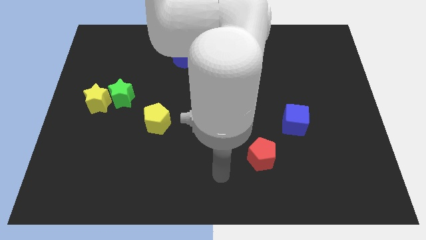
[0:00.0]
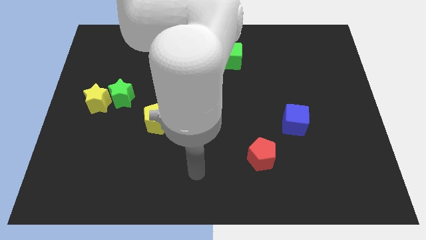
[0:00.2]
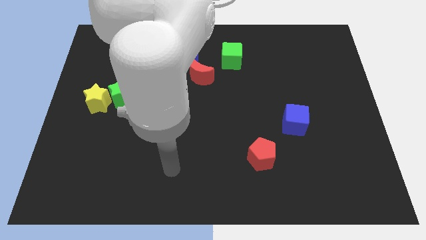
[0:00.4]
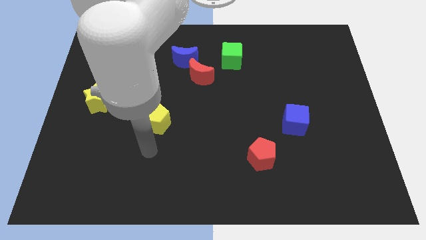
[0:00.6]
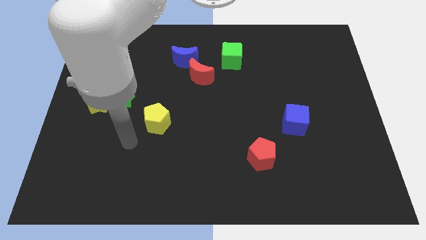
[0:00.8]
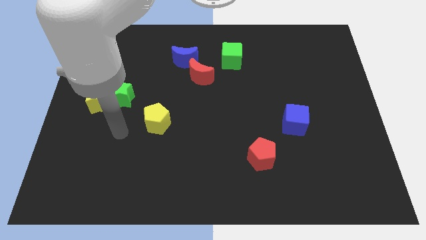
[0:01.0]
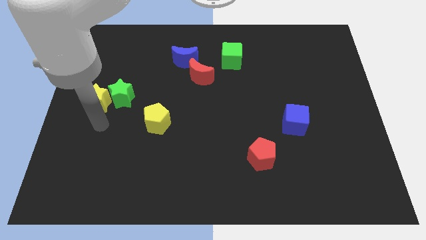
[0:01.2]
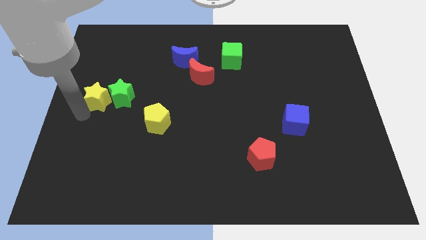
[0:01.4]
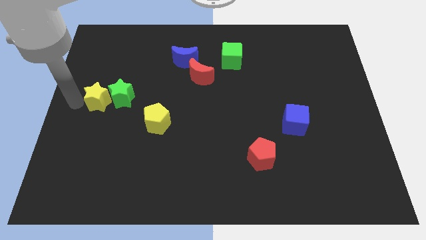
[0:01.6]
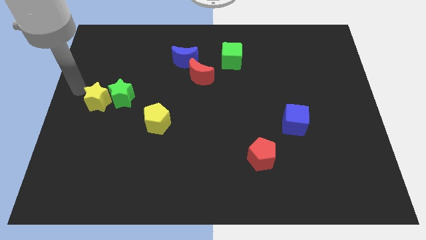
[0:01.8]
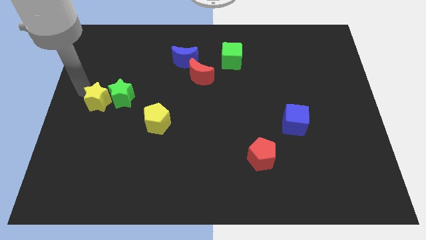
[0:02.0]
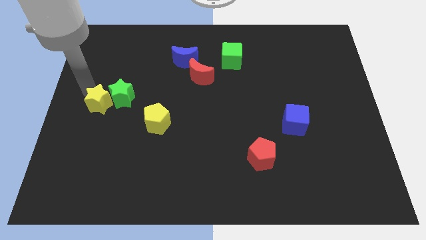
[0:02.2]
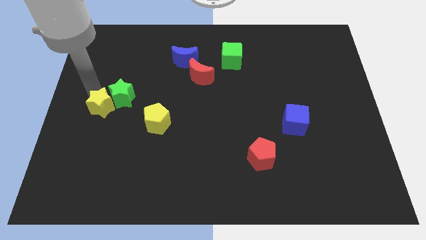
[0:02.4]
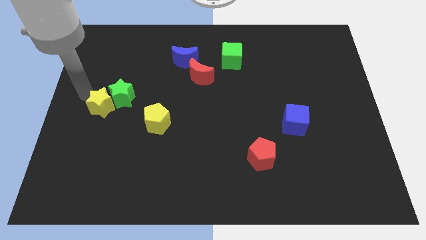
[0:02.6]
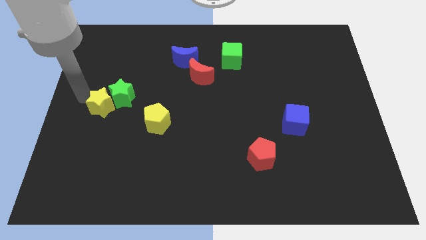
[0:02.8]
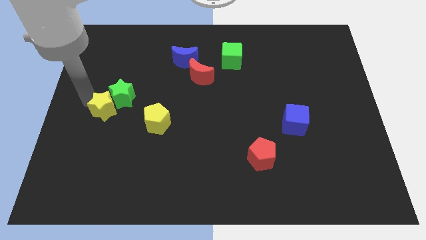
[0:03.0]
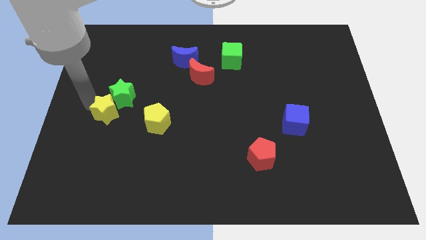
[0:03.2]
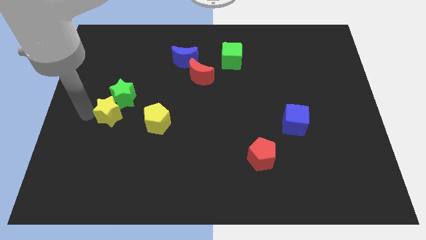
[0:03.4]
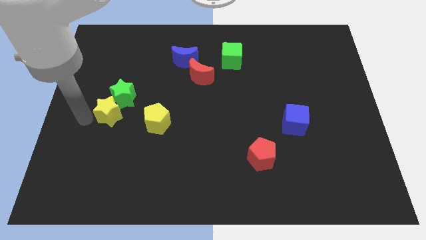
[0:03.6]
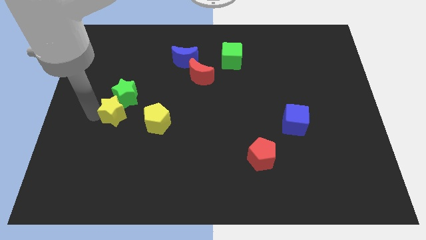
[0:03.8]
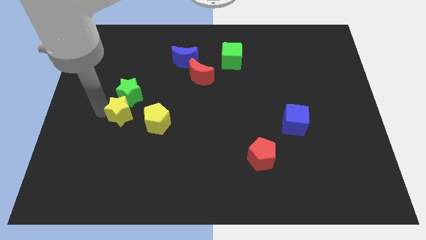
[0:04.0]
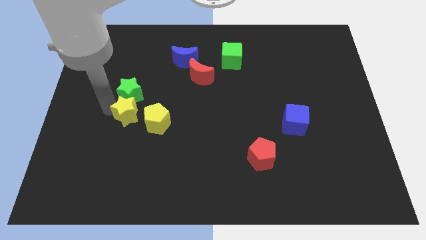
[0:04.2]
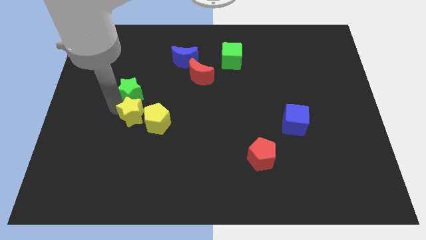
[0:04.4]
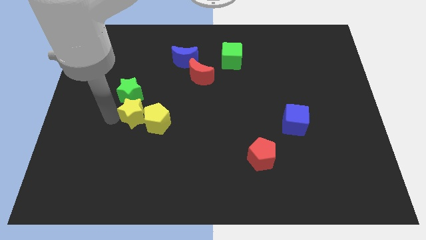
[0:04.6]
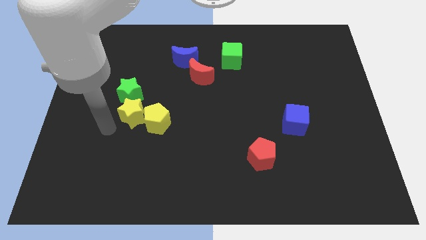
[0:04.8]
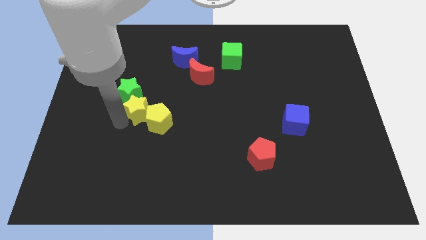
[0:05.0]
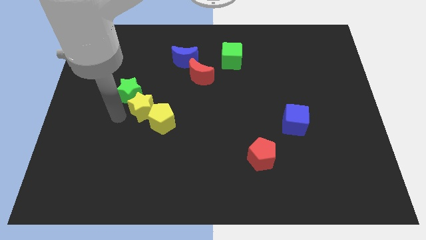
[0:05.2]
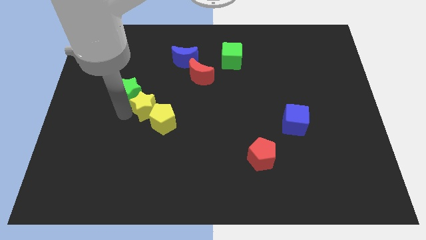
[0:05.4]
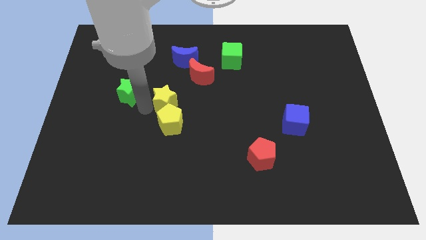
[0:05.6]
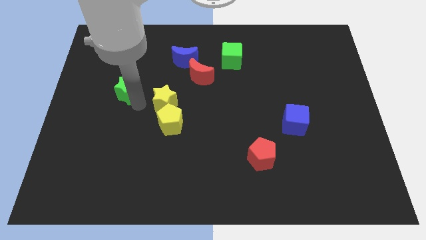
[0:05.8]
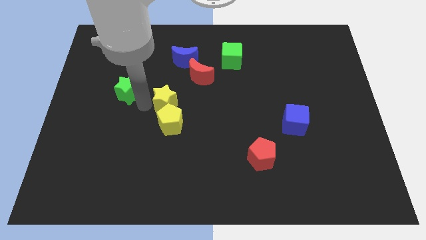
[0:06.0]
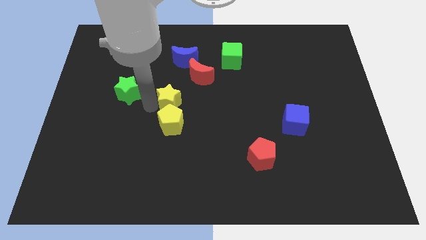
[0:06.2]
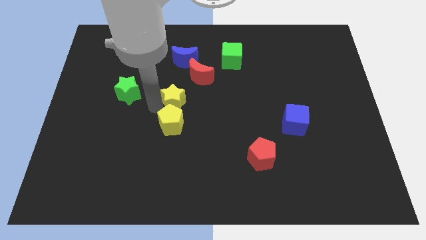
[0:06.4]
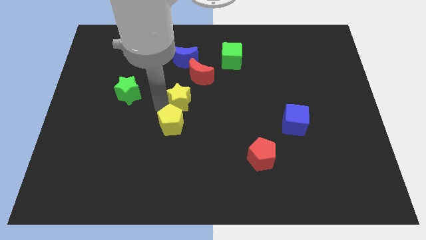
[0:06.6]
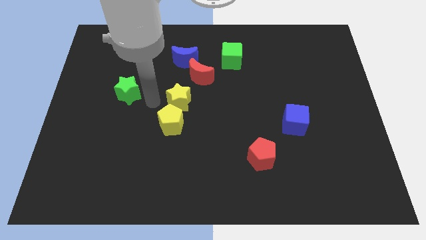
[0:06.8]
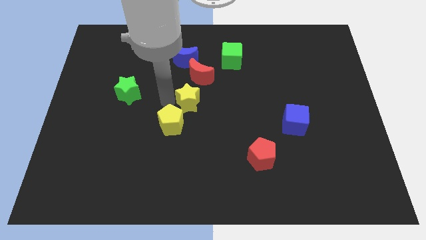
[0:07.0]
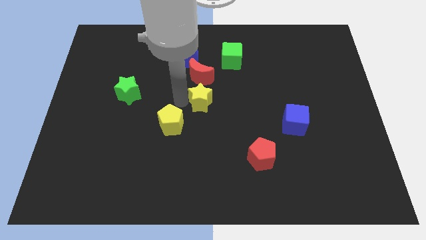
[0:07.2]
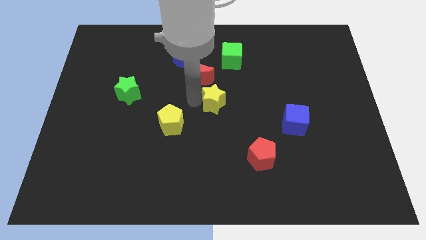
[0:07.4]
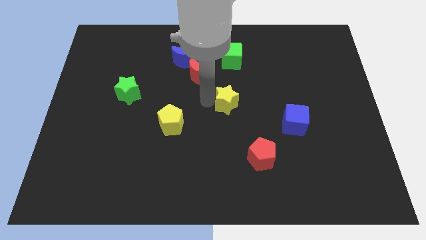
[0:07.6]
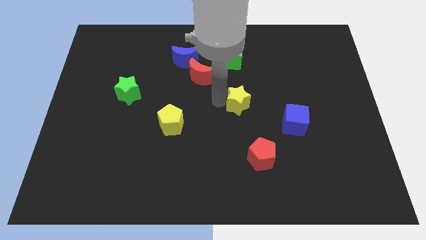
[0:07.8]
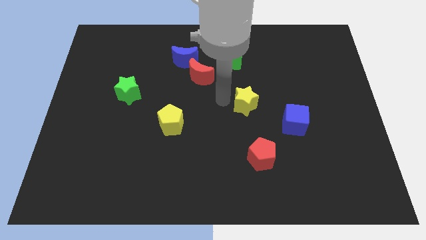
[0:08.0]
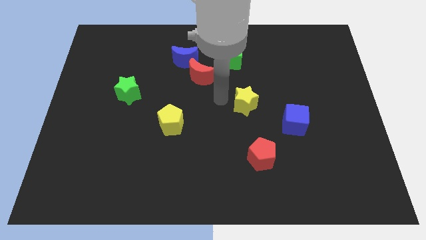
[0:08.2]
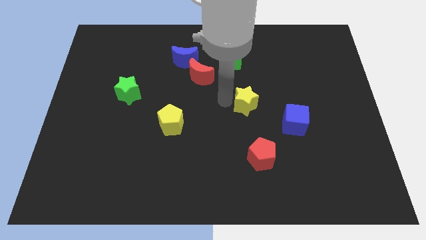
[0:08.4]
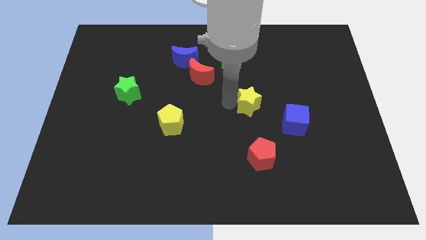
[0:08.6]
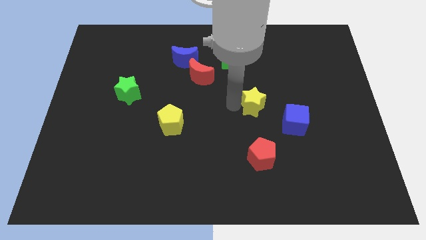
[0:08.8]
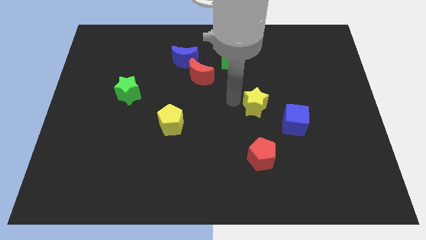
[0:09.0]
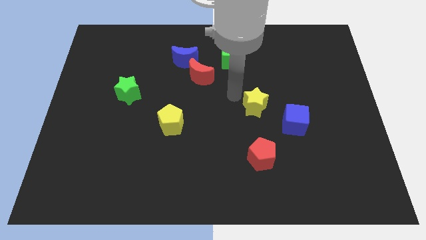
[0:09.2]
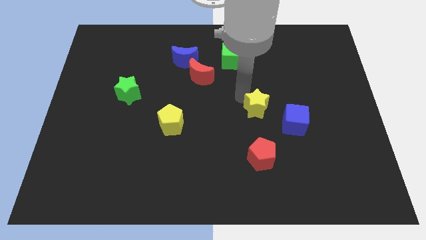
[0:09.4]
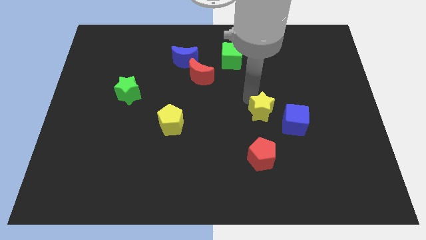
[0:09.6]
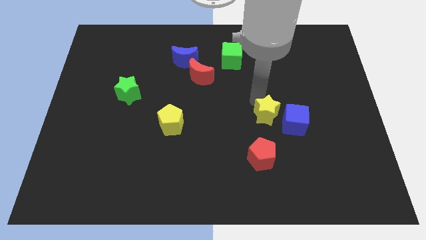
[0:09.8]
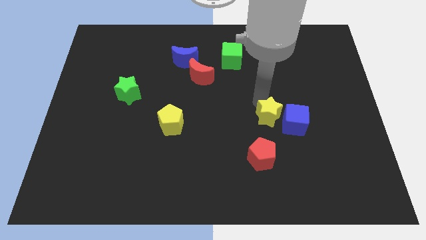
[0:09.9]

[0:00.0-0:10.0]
push the yellow star towards the blue cube

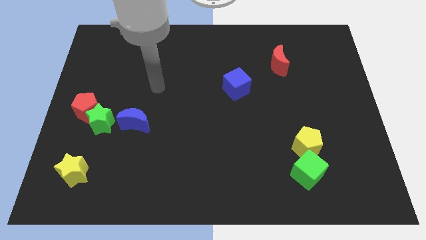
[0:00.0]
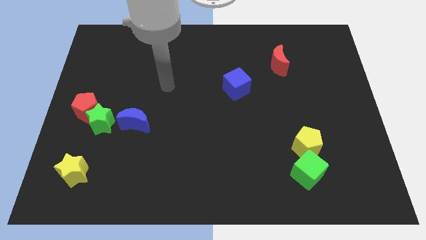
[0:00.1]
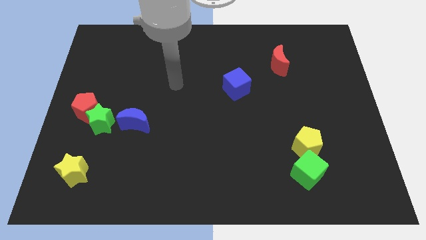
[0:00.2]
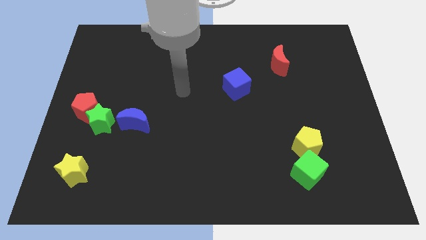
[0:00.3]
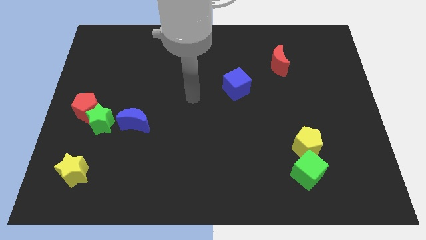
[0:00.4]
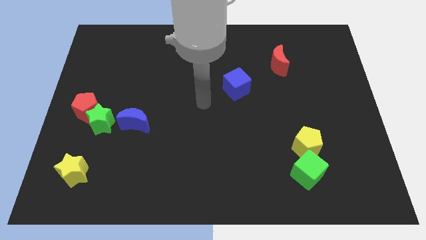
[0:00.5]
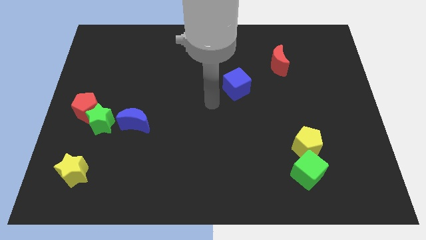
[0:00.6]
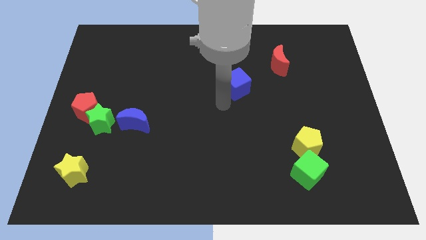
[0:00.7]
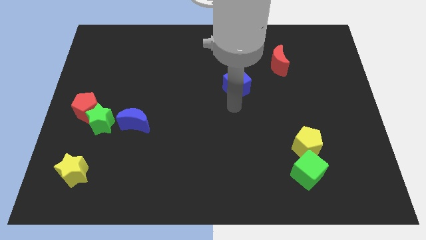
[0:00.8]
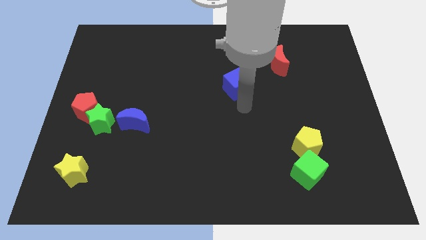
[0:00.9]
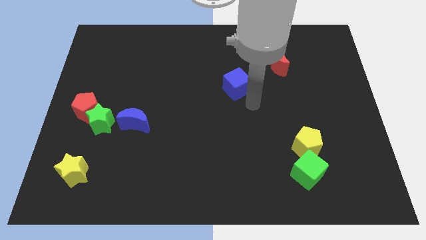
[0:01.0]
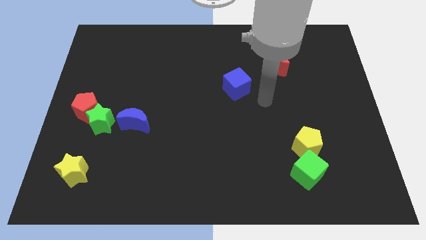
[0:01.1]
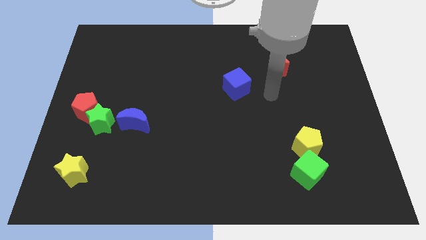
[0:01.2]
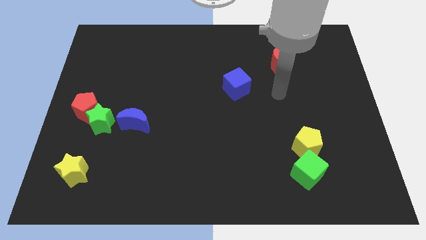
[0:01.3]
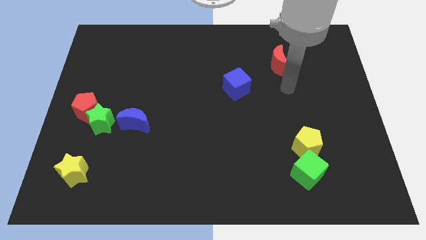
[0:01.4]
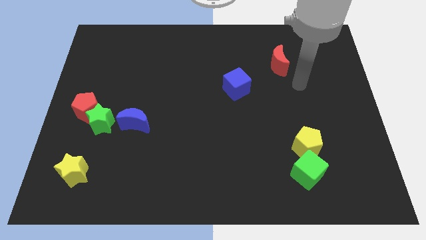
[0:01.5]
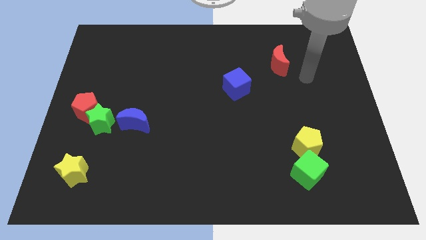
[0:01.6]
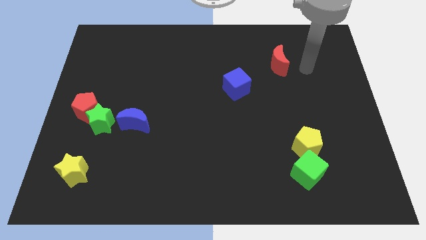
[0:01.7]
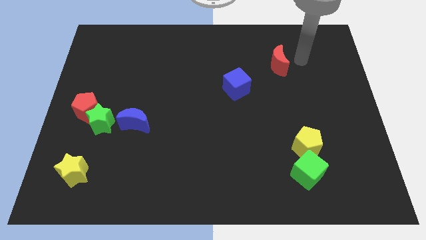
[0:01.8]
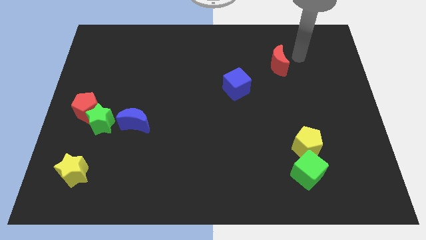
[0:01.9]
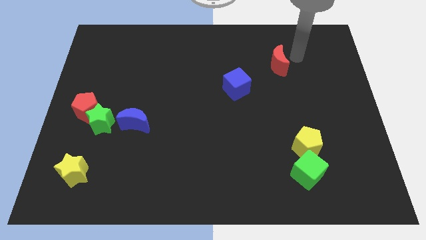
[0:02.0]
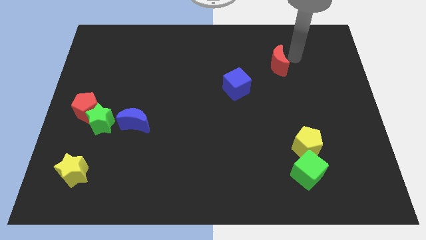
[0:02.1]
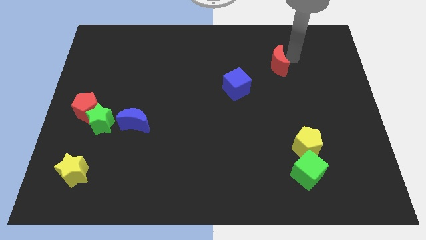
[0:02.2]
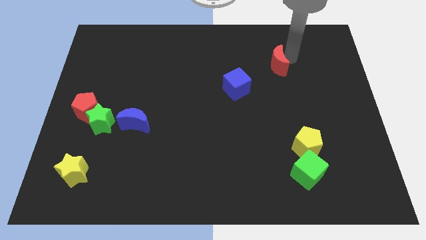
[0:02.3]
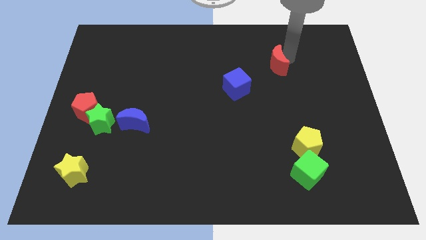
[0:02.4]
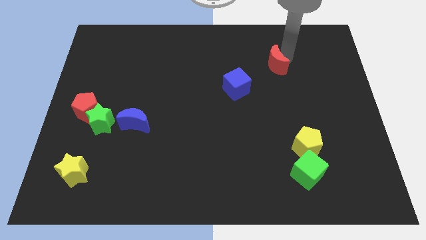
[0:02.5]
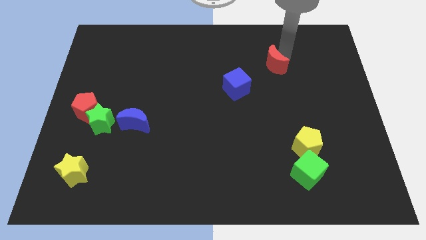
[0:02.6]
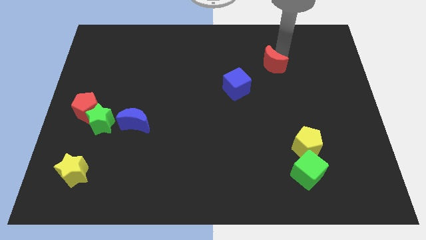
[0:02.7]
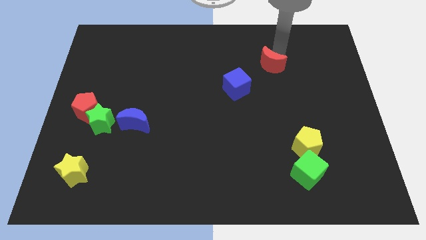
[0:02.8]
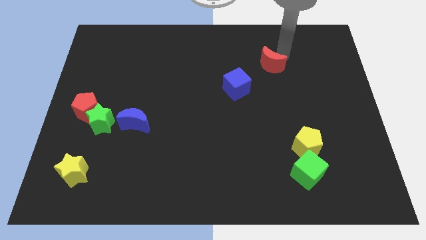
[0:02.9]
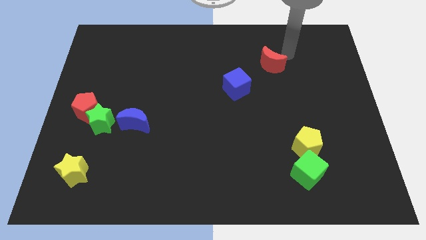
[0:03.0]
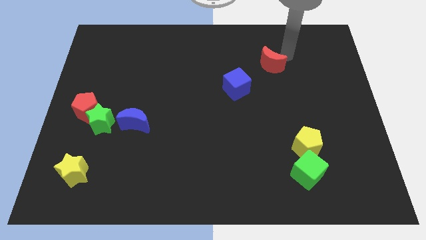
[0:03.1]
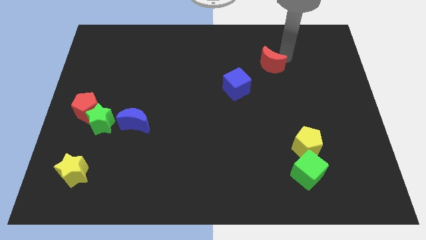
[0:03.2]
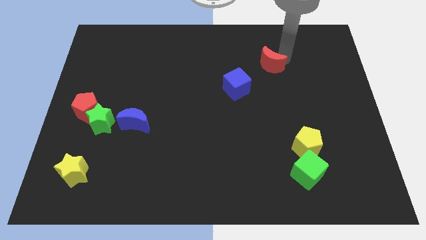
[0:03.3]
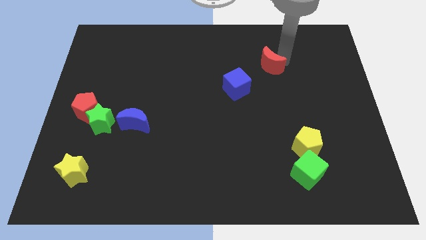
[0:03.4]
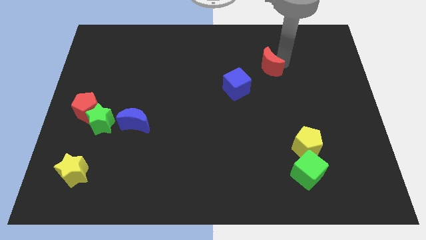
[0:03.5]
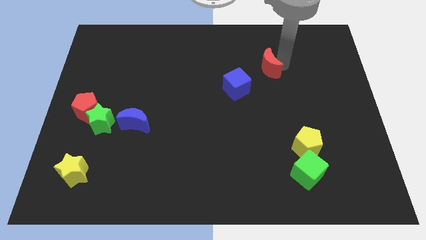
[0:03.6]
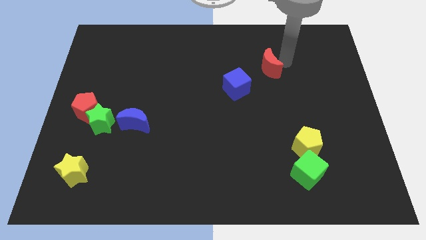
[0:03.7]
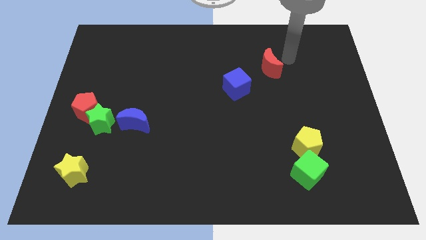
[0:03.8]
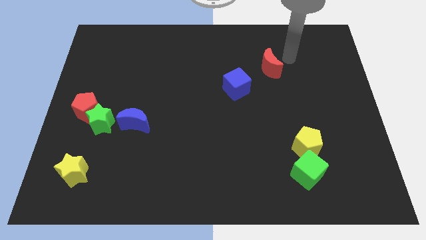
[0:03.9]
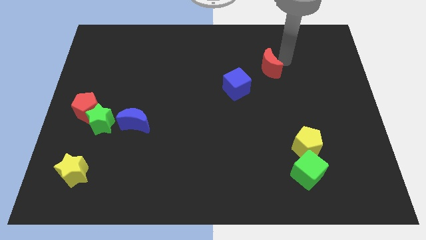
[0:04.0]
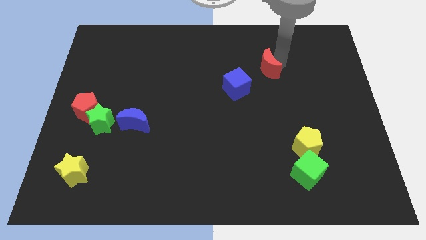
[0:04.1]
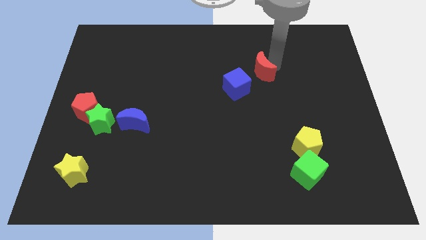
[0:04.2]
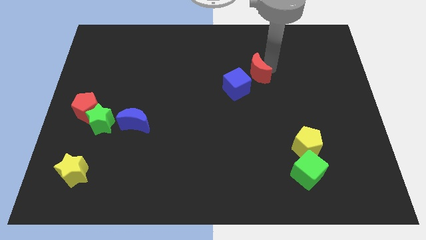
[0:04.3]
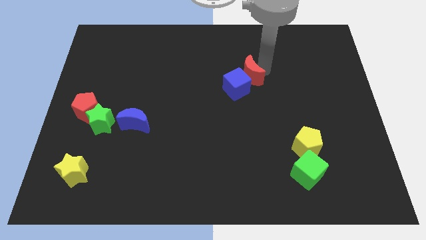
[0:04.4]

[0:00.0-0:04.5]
put the red moon next to the blue cube
